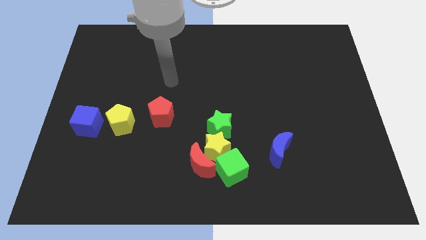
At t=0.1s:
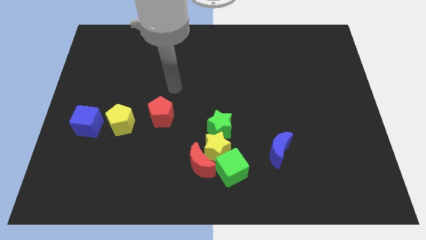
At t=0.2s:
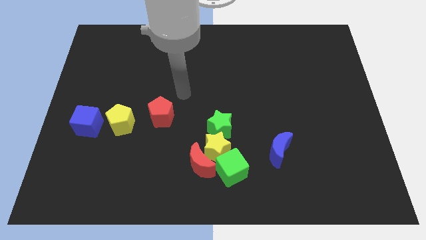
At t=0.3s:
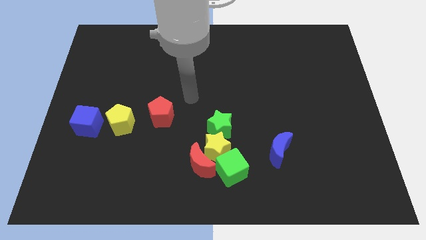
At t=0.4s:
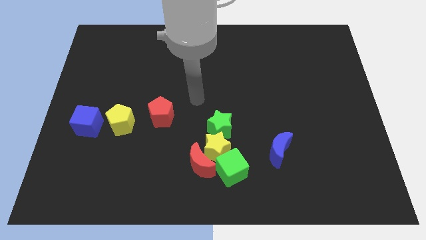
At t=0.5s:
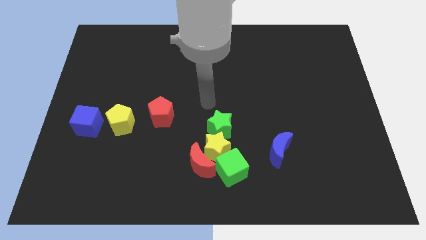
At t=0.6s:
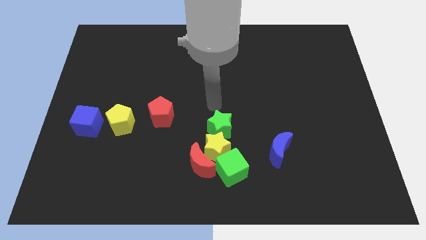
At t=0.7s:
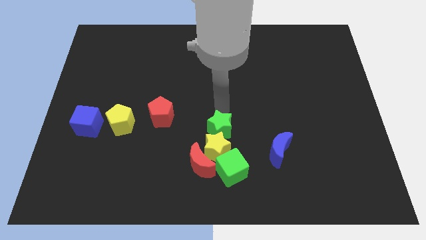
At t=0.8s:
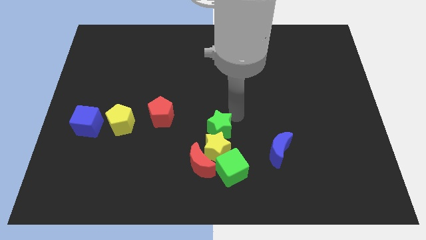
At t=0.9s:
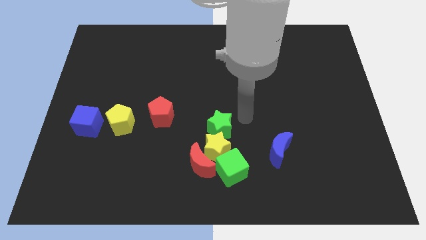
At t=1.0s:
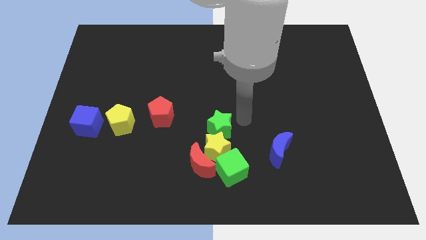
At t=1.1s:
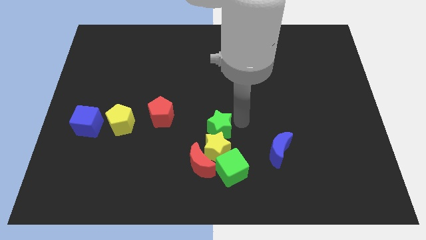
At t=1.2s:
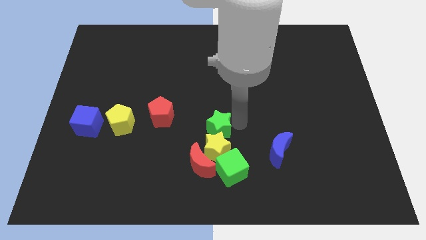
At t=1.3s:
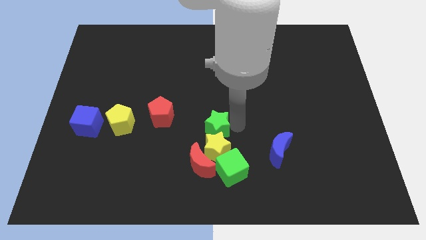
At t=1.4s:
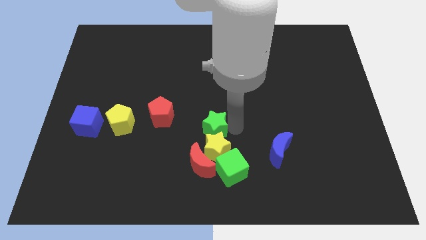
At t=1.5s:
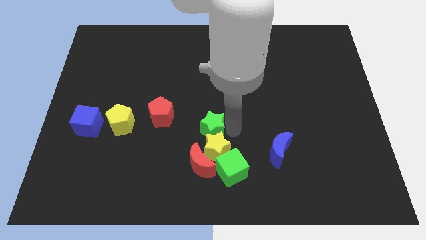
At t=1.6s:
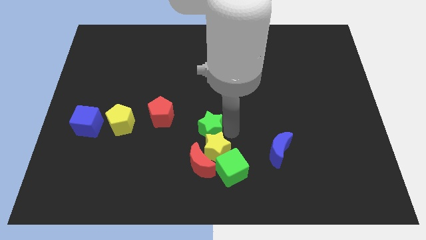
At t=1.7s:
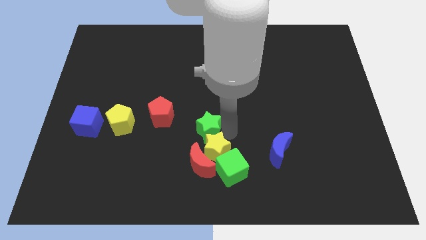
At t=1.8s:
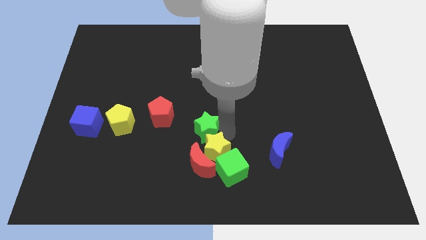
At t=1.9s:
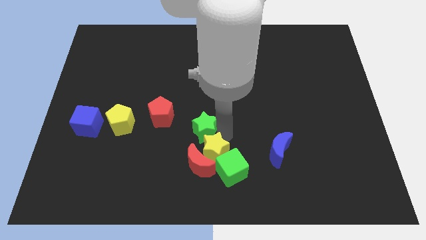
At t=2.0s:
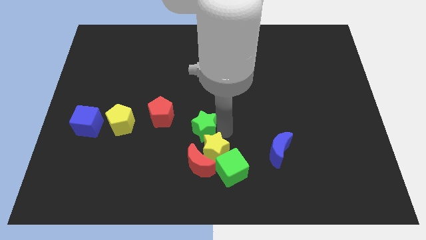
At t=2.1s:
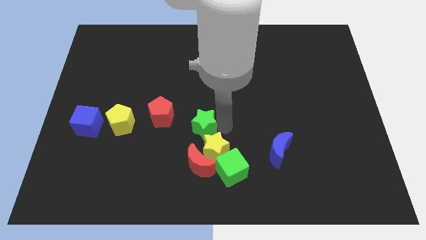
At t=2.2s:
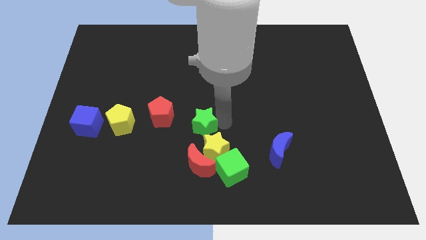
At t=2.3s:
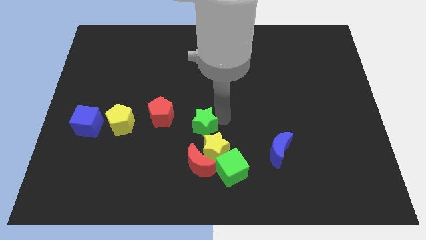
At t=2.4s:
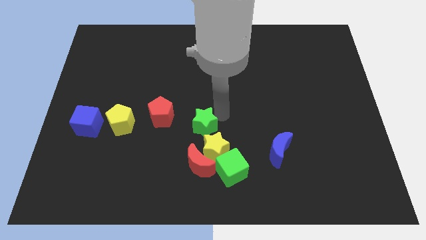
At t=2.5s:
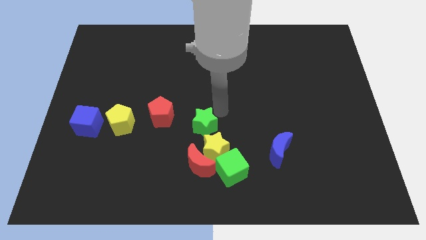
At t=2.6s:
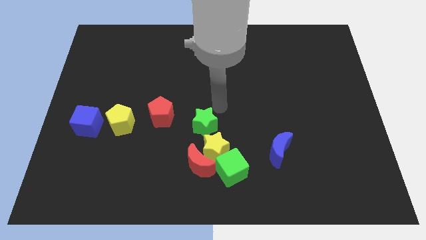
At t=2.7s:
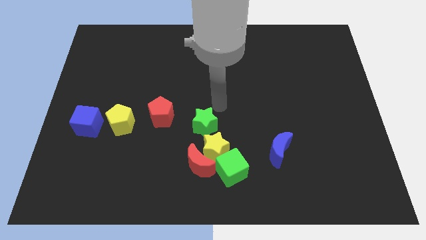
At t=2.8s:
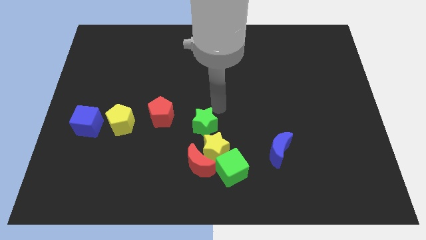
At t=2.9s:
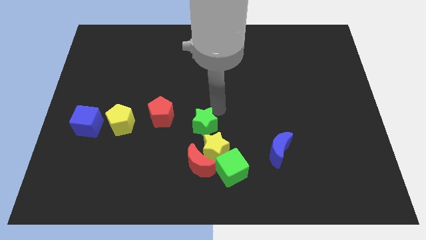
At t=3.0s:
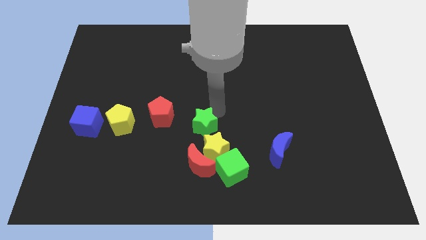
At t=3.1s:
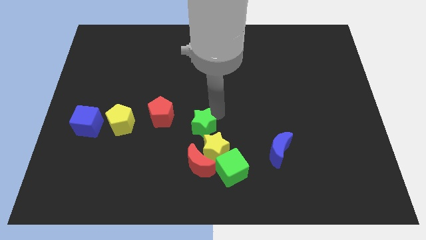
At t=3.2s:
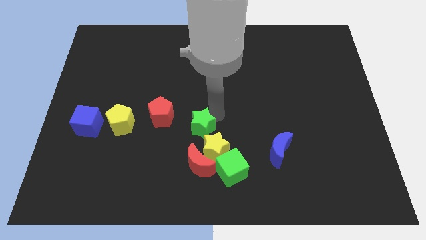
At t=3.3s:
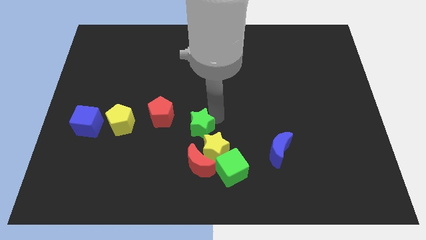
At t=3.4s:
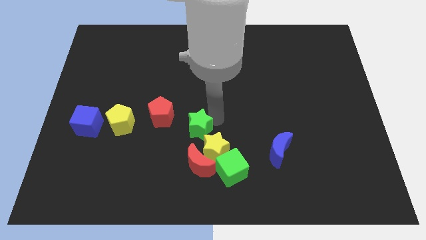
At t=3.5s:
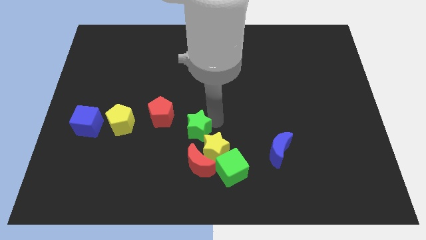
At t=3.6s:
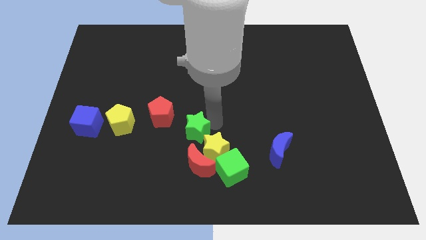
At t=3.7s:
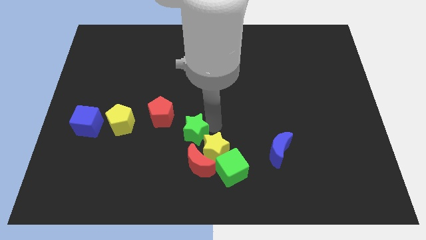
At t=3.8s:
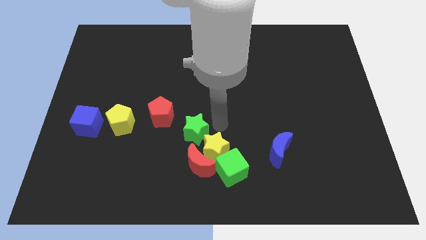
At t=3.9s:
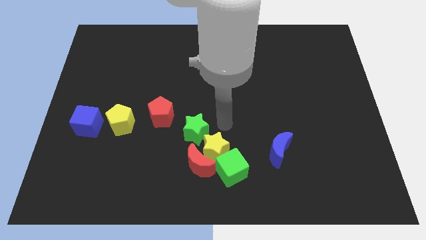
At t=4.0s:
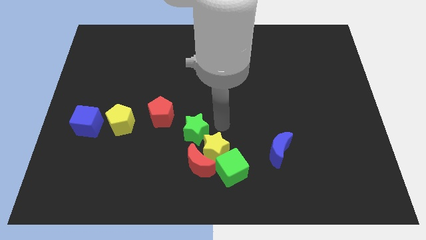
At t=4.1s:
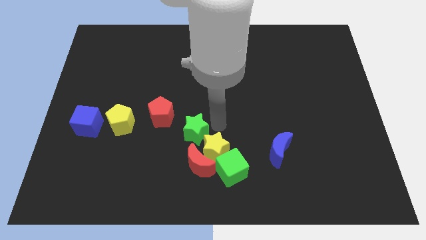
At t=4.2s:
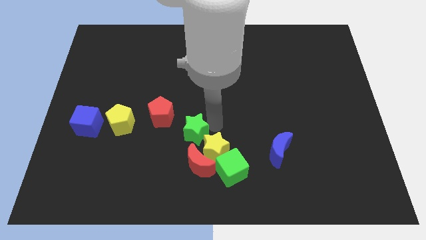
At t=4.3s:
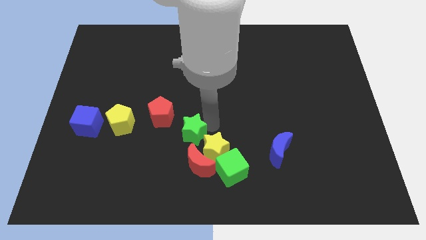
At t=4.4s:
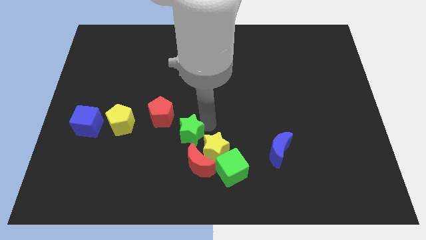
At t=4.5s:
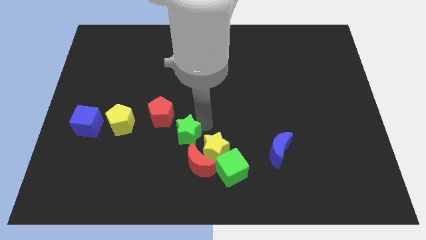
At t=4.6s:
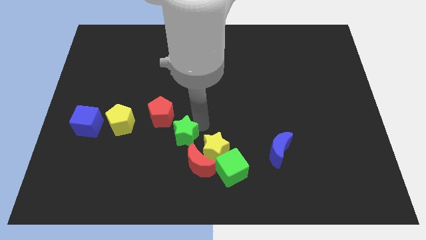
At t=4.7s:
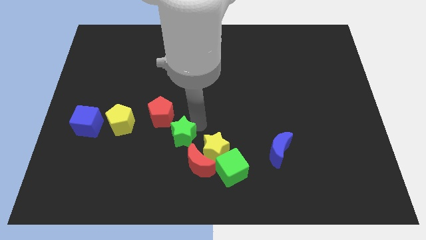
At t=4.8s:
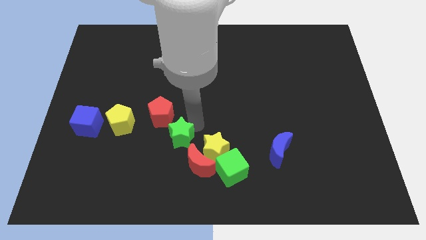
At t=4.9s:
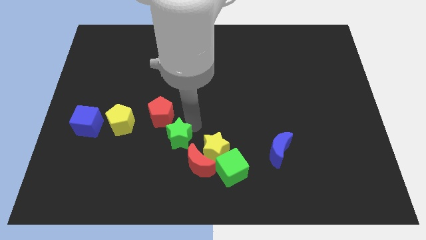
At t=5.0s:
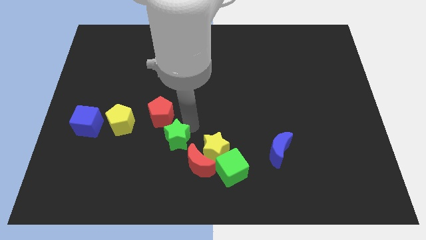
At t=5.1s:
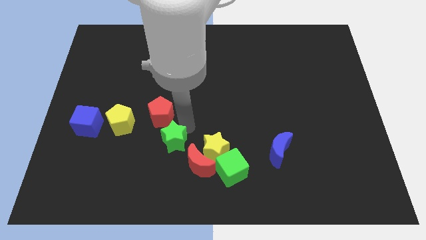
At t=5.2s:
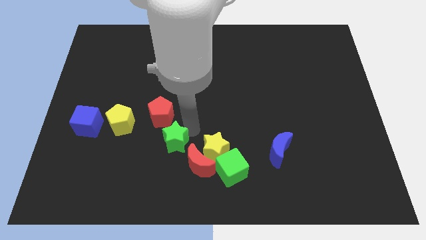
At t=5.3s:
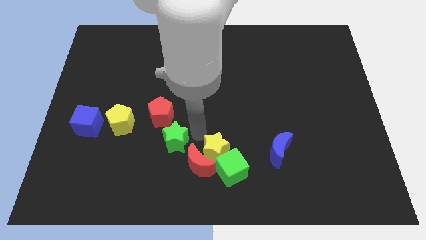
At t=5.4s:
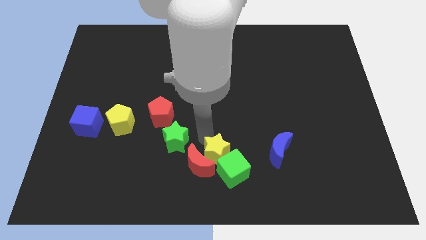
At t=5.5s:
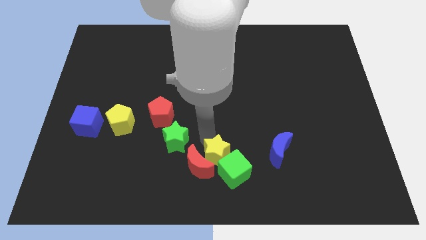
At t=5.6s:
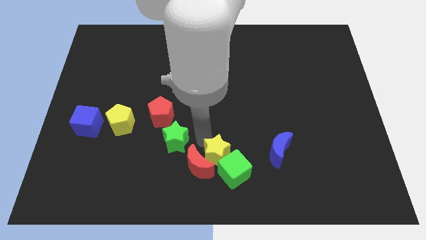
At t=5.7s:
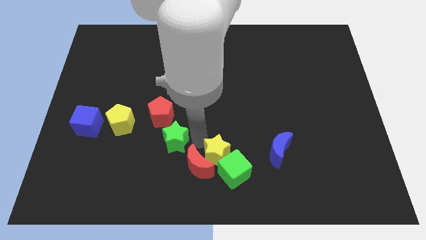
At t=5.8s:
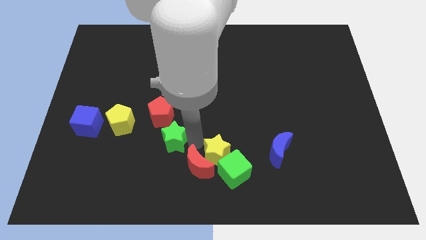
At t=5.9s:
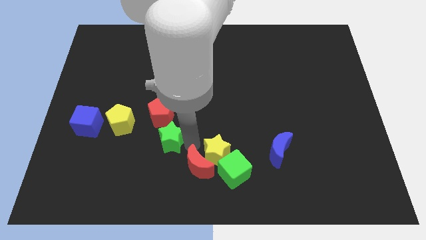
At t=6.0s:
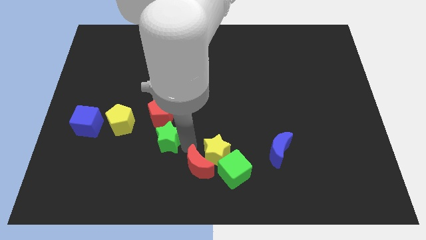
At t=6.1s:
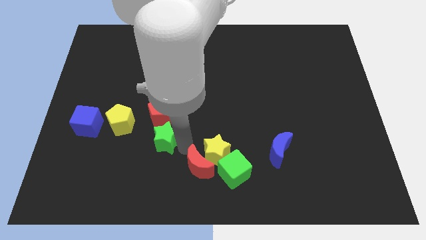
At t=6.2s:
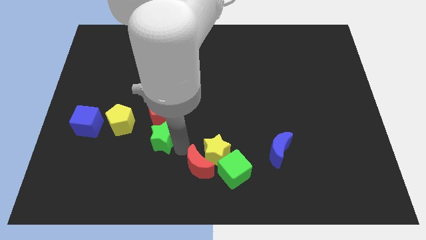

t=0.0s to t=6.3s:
push the green star to the bottom right side of the yellow pentagon

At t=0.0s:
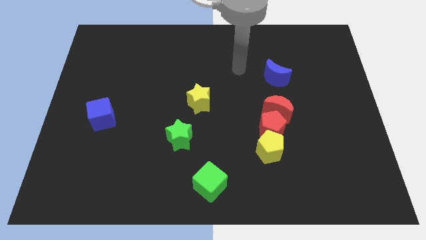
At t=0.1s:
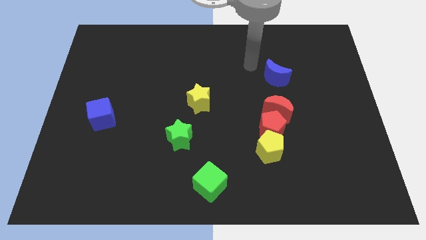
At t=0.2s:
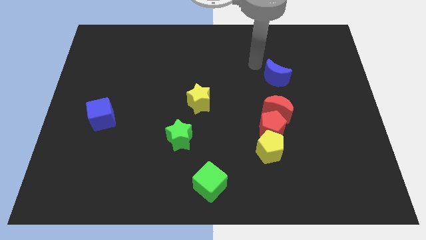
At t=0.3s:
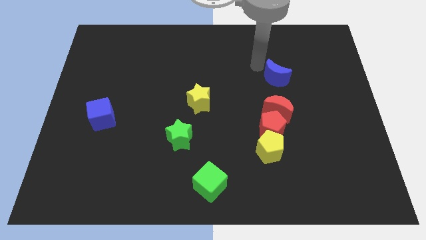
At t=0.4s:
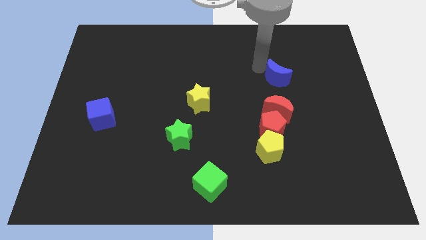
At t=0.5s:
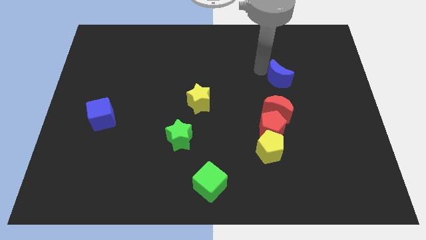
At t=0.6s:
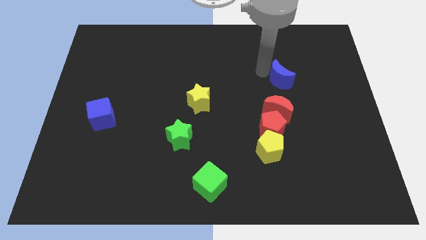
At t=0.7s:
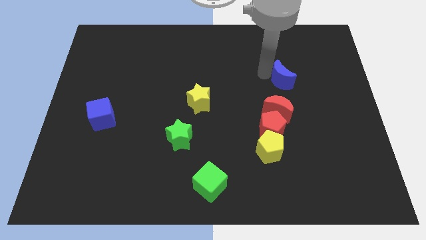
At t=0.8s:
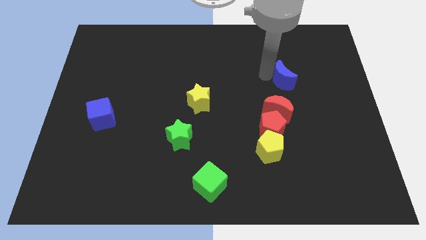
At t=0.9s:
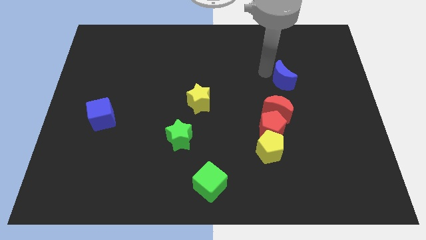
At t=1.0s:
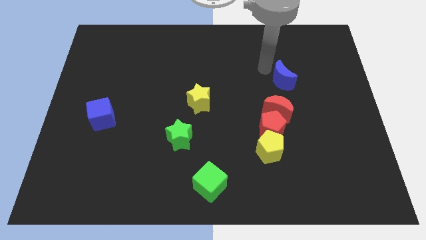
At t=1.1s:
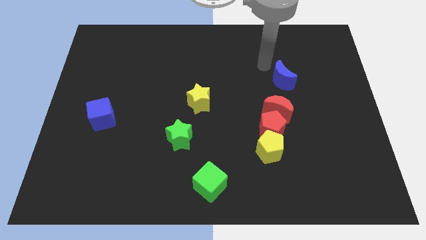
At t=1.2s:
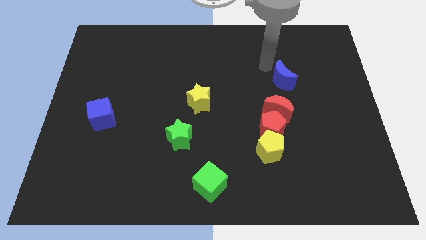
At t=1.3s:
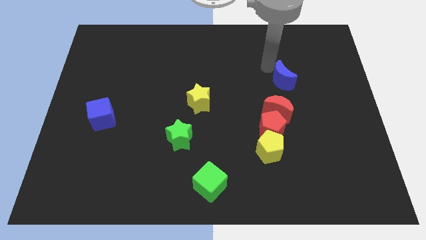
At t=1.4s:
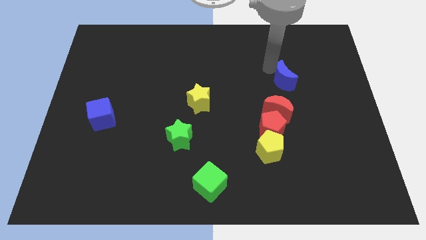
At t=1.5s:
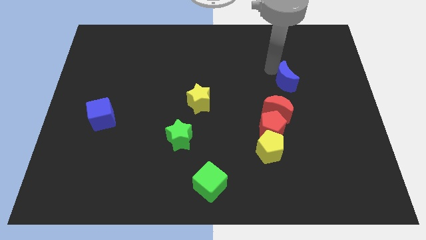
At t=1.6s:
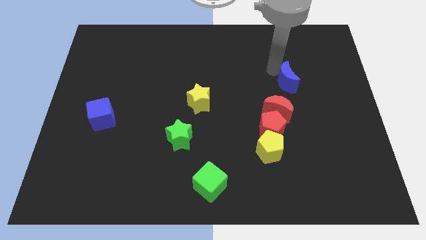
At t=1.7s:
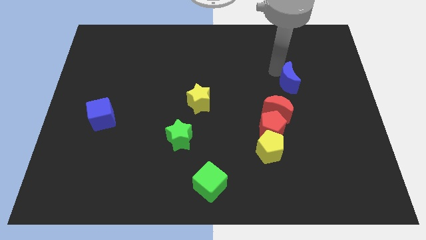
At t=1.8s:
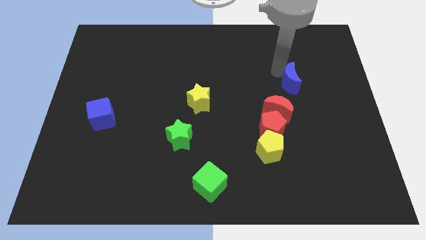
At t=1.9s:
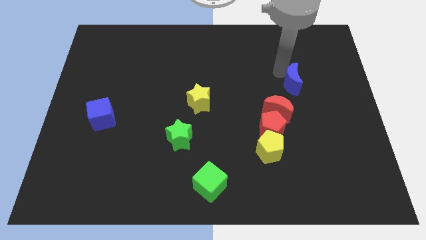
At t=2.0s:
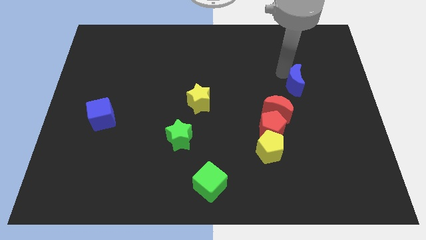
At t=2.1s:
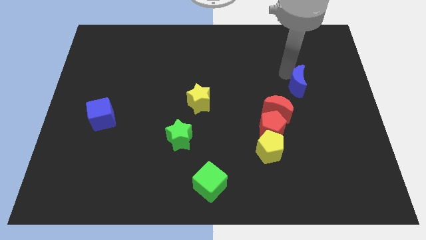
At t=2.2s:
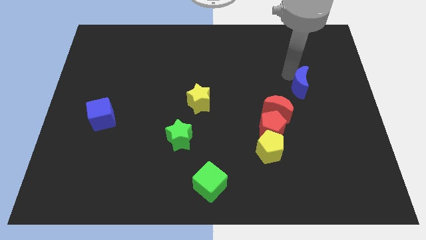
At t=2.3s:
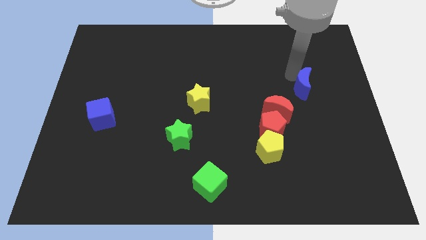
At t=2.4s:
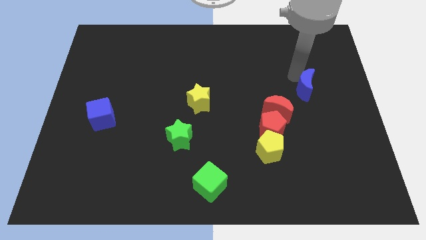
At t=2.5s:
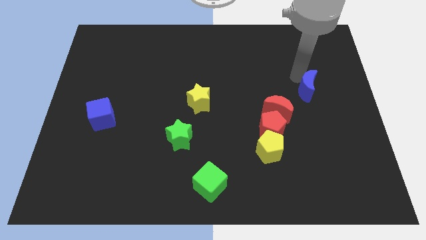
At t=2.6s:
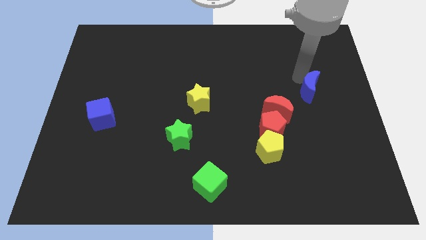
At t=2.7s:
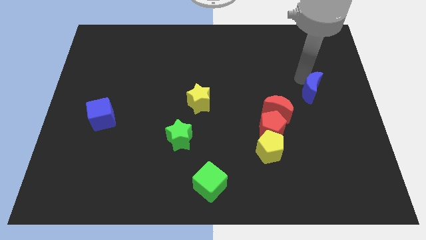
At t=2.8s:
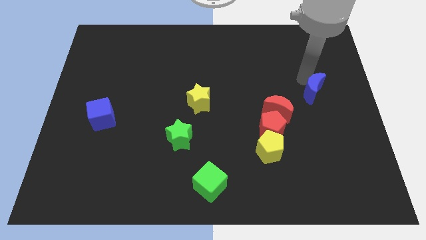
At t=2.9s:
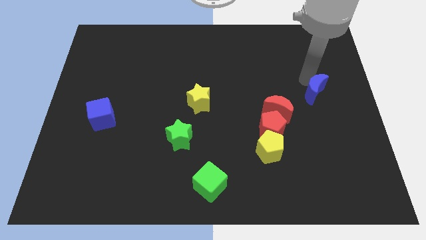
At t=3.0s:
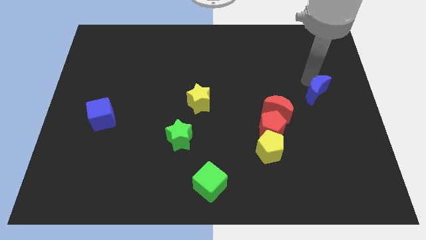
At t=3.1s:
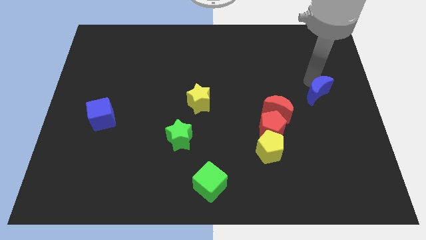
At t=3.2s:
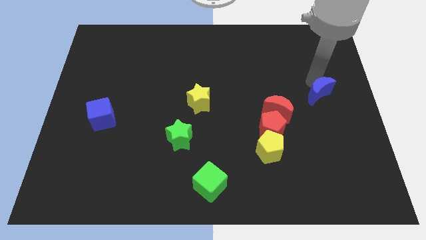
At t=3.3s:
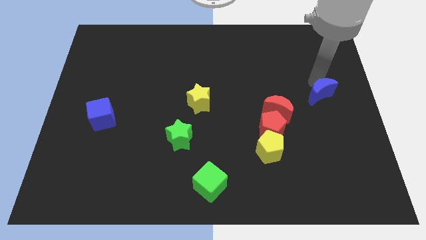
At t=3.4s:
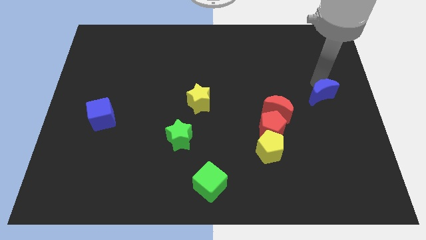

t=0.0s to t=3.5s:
move the blue moon right of the red moon
